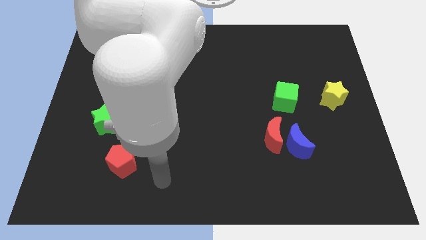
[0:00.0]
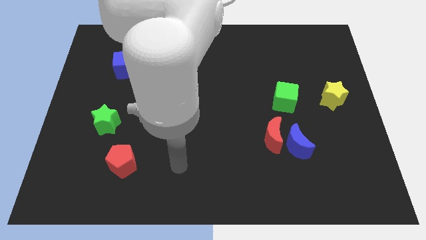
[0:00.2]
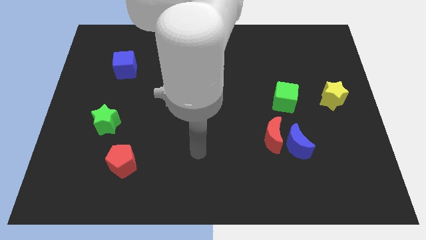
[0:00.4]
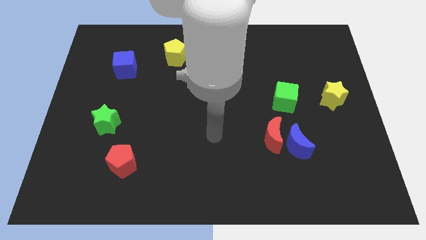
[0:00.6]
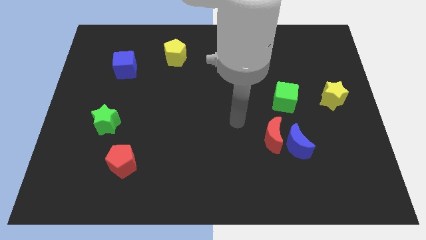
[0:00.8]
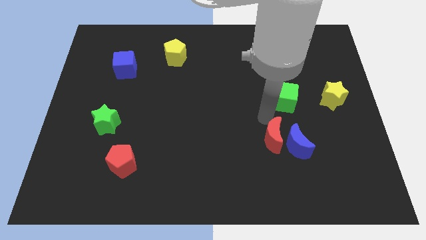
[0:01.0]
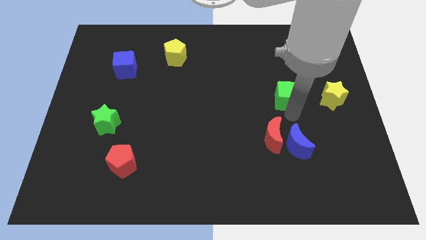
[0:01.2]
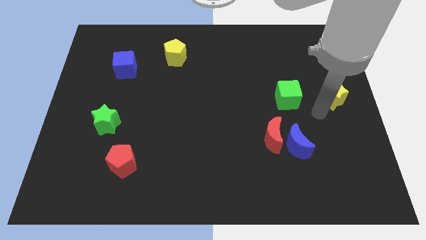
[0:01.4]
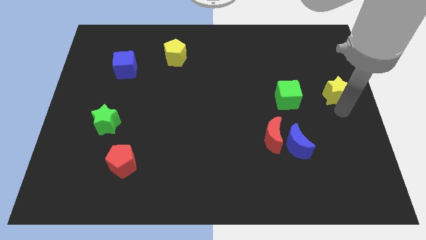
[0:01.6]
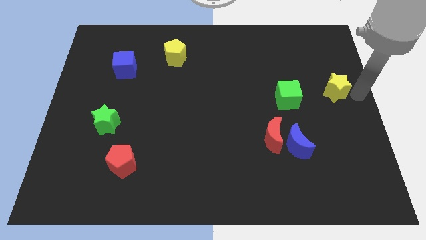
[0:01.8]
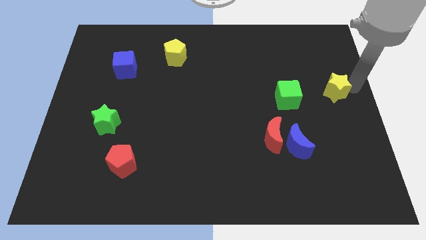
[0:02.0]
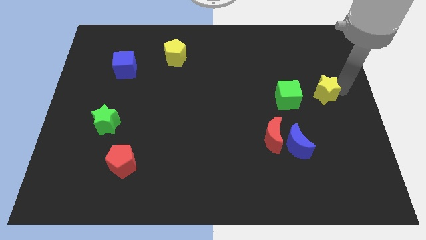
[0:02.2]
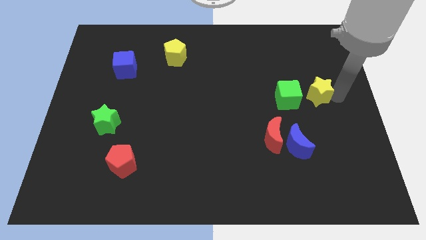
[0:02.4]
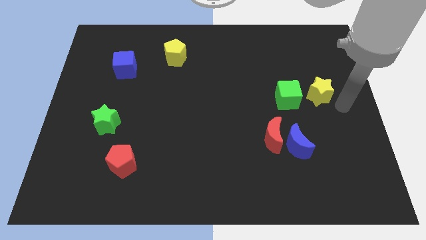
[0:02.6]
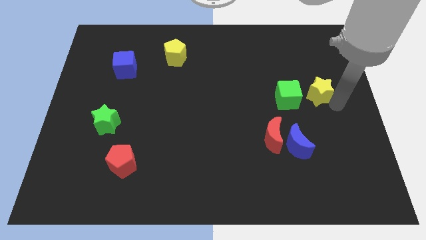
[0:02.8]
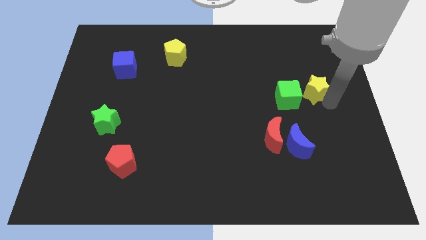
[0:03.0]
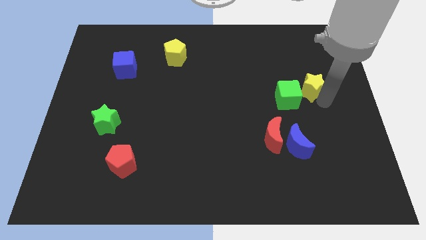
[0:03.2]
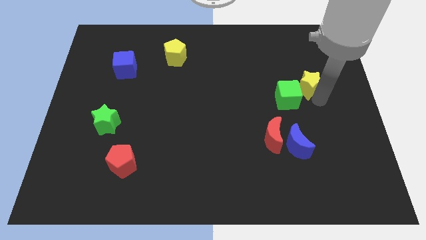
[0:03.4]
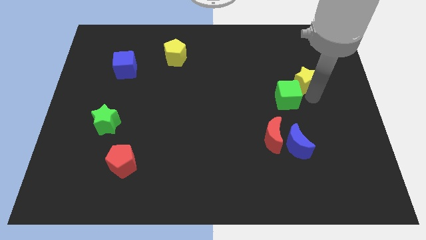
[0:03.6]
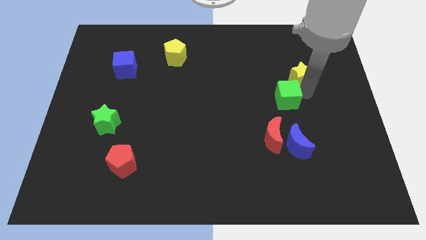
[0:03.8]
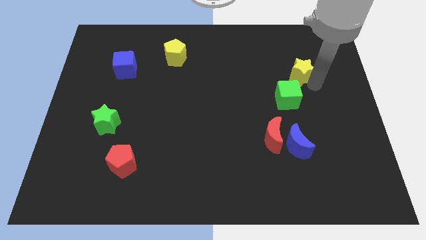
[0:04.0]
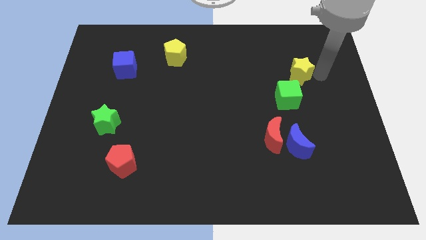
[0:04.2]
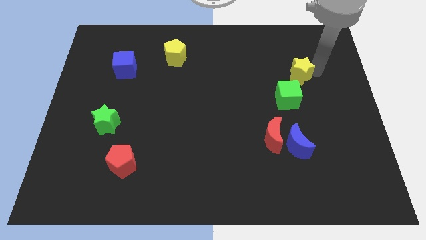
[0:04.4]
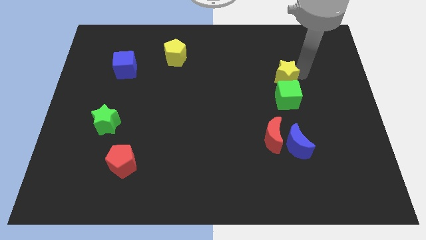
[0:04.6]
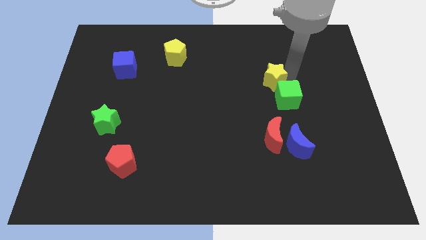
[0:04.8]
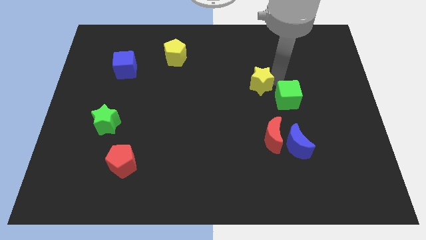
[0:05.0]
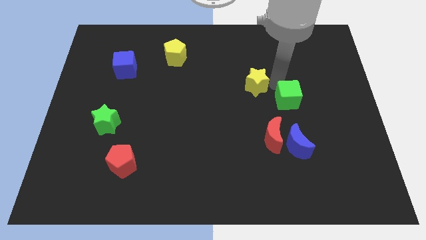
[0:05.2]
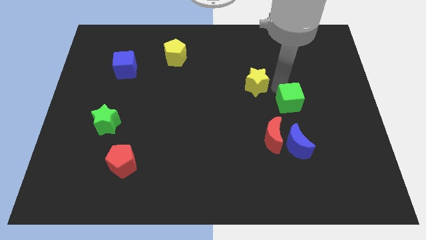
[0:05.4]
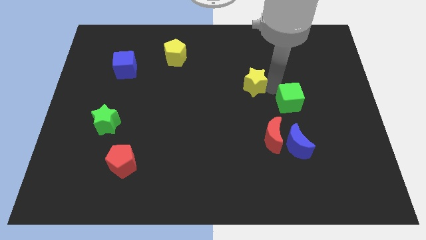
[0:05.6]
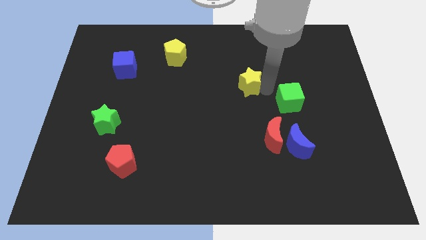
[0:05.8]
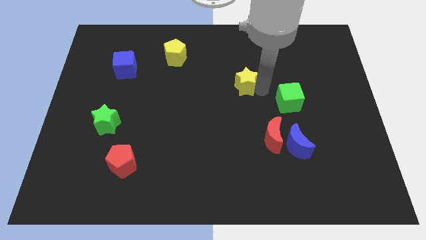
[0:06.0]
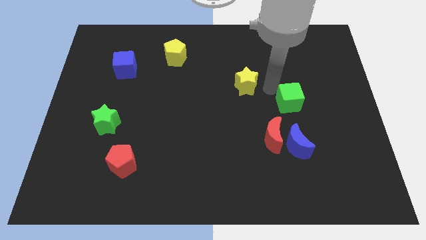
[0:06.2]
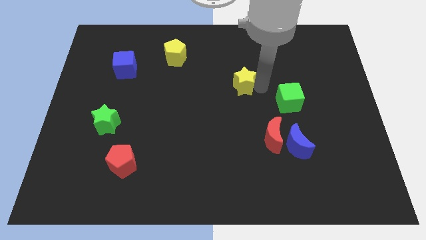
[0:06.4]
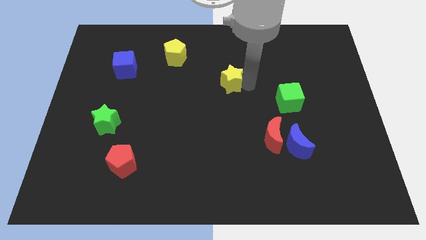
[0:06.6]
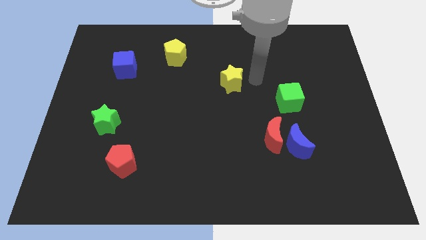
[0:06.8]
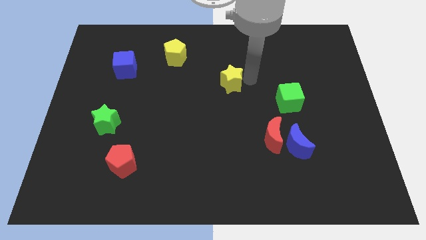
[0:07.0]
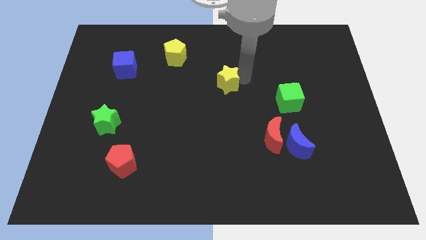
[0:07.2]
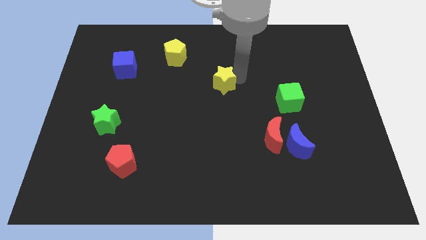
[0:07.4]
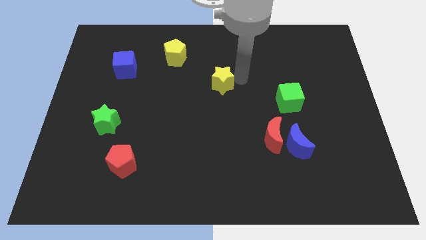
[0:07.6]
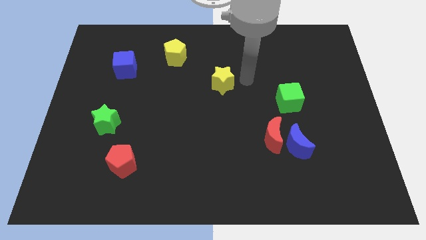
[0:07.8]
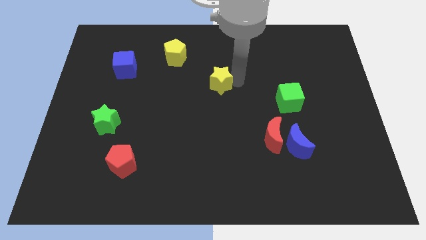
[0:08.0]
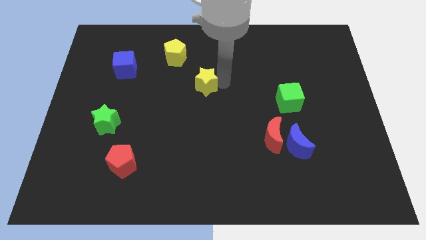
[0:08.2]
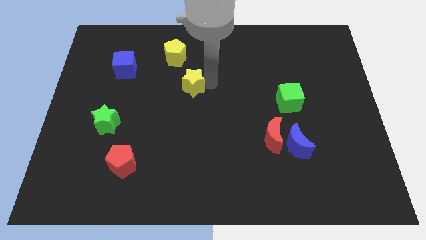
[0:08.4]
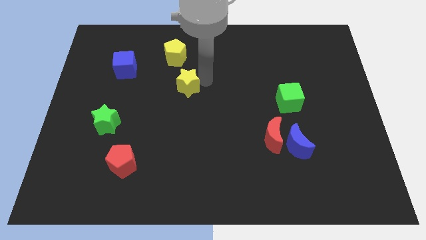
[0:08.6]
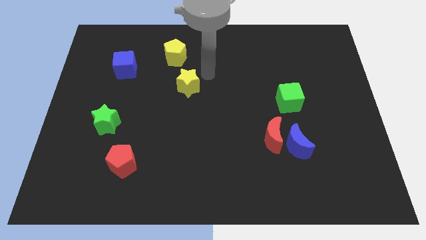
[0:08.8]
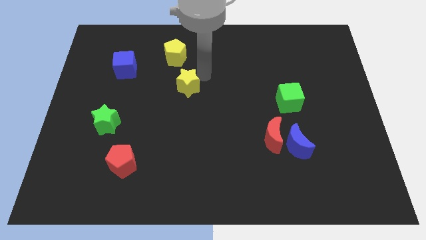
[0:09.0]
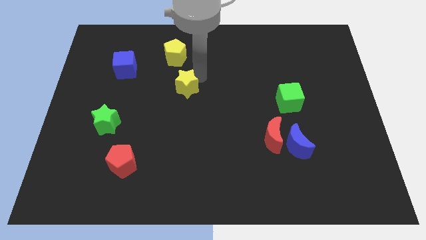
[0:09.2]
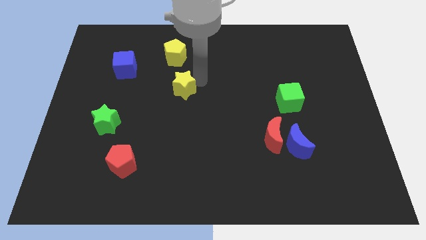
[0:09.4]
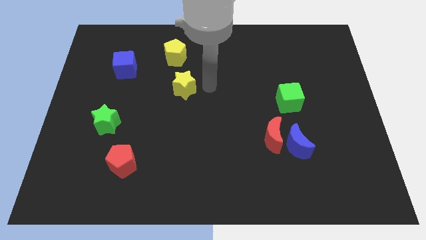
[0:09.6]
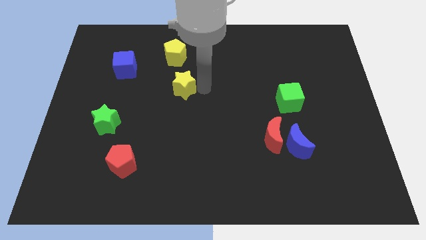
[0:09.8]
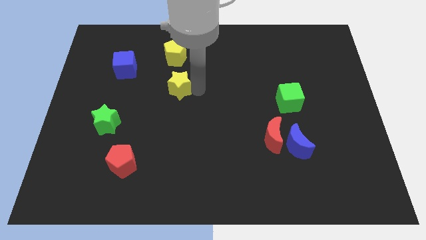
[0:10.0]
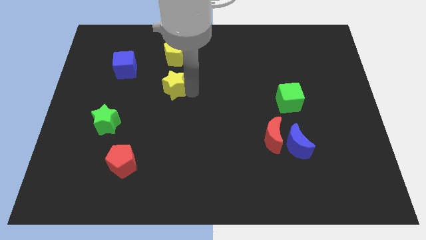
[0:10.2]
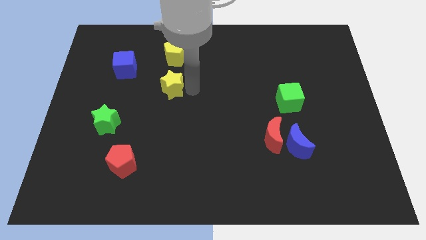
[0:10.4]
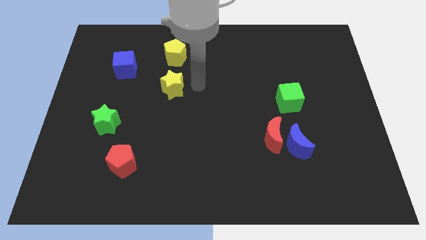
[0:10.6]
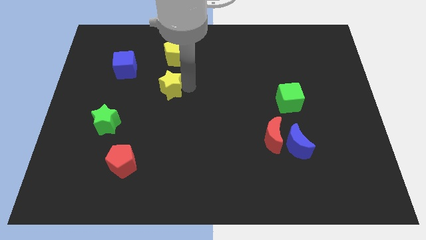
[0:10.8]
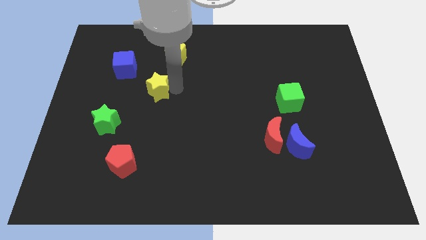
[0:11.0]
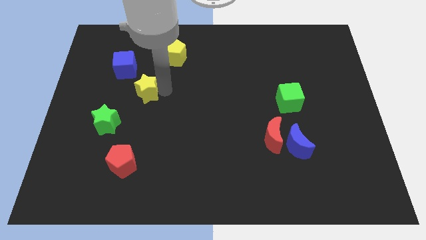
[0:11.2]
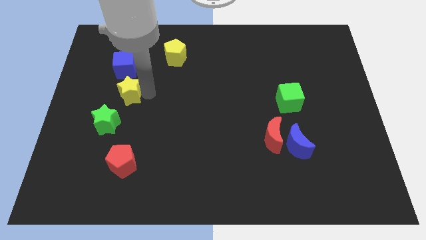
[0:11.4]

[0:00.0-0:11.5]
slide the yellow star to the top side of the green star
